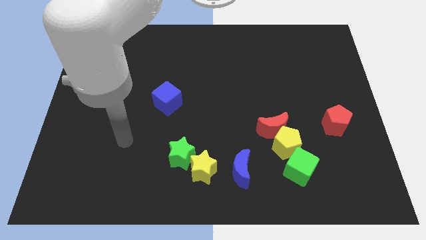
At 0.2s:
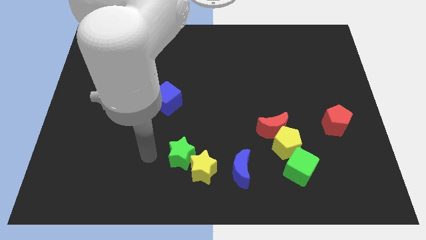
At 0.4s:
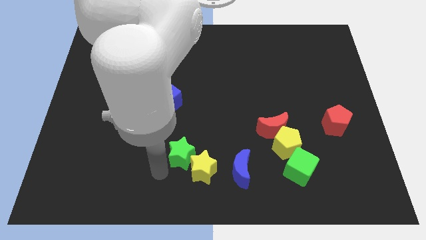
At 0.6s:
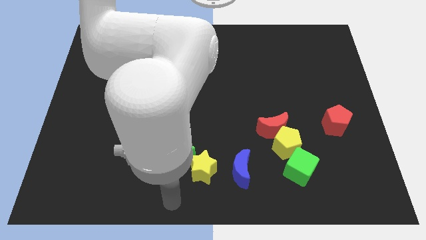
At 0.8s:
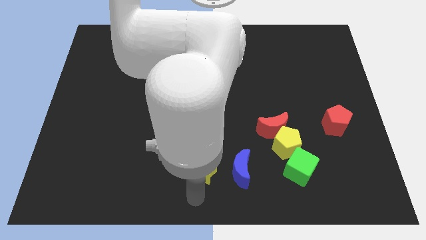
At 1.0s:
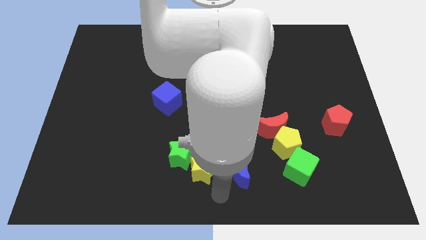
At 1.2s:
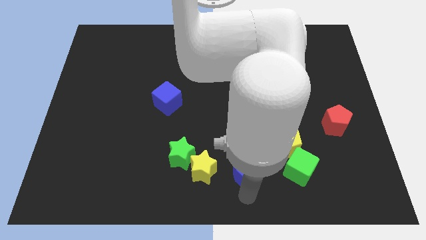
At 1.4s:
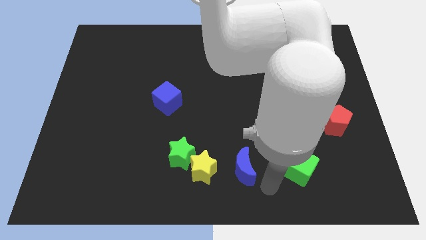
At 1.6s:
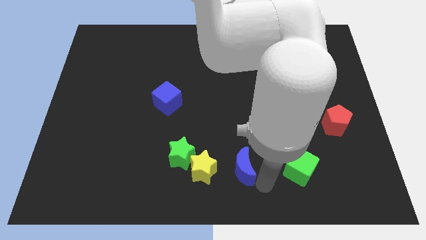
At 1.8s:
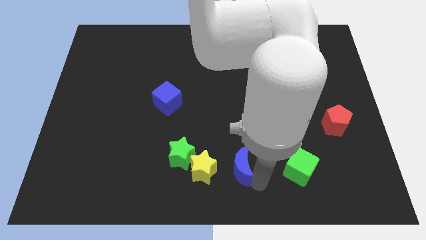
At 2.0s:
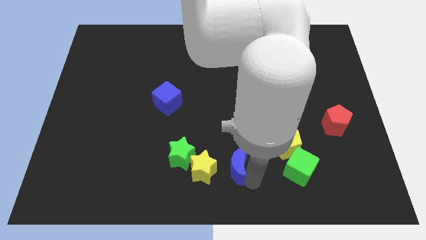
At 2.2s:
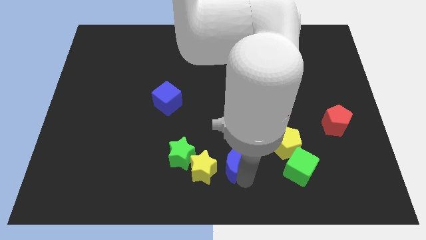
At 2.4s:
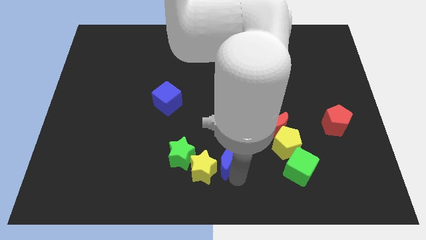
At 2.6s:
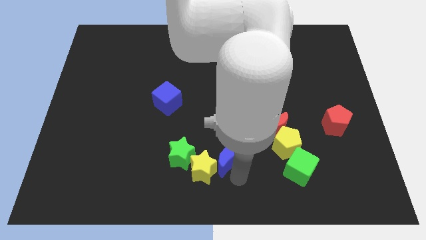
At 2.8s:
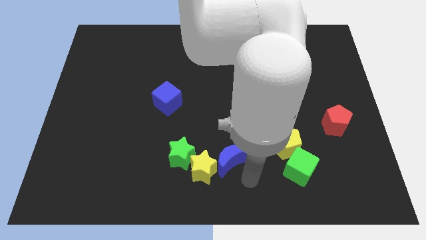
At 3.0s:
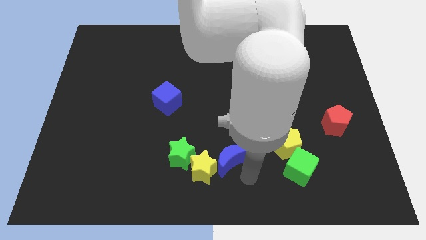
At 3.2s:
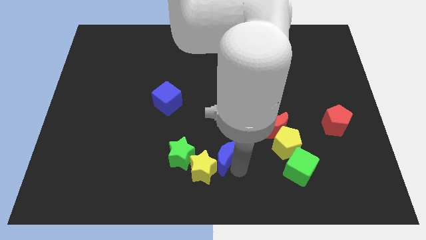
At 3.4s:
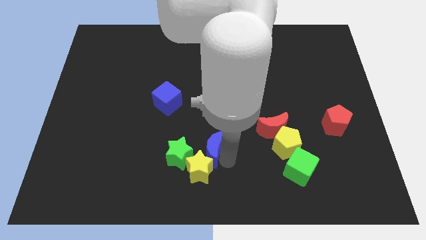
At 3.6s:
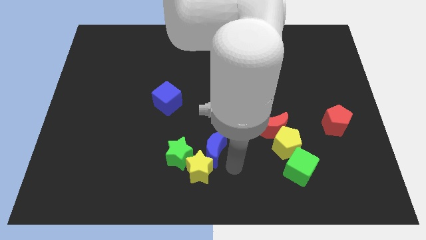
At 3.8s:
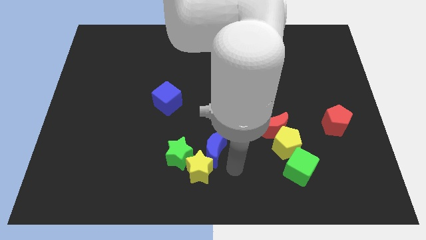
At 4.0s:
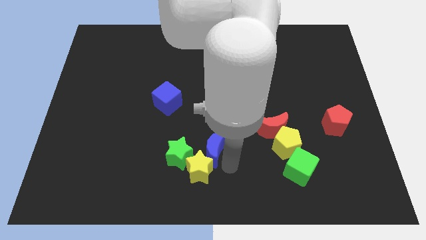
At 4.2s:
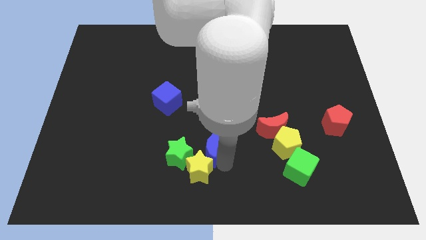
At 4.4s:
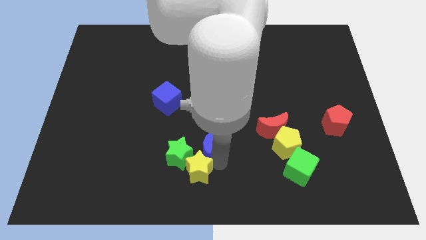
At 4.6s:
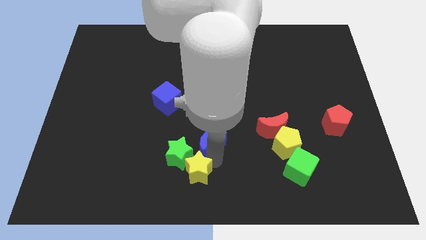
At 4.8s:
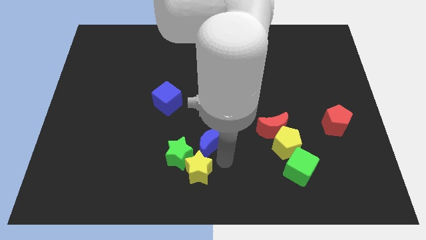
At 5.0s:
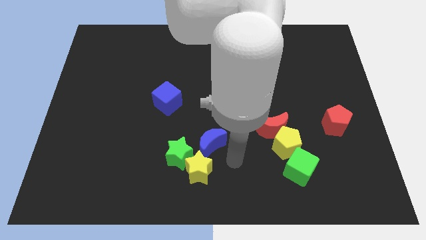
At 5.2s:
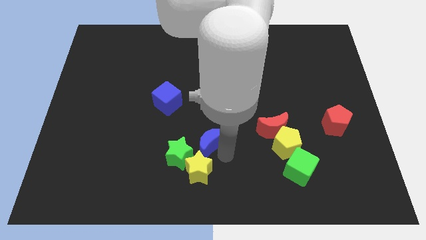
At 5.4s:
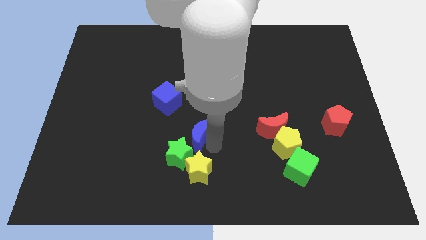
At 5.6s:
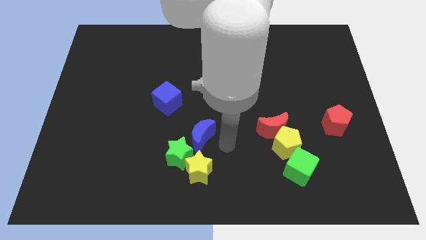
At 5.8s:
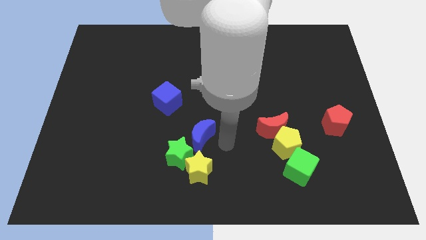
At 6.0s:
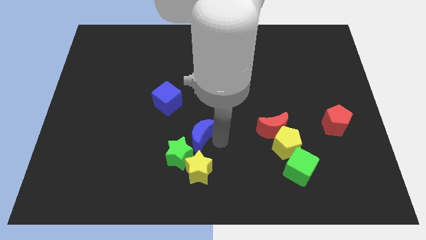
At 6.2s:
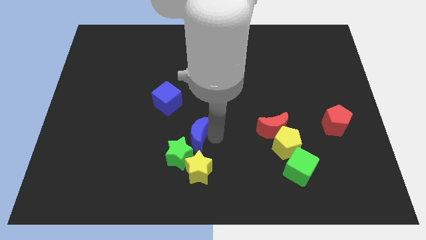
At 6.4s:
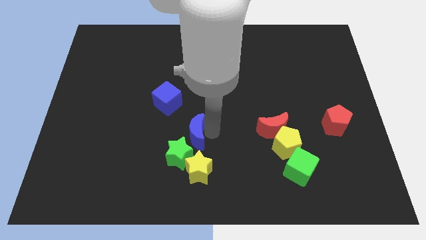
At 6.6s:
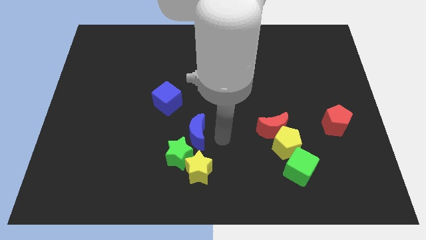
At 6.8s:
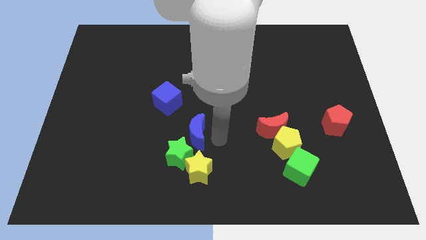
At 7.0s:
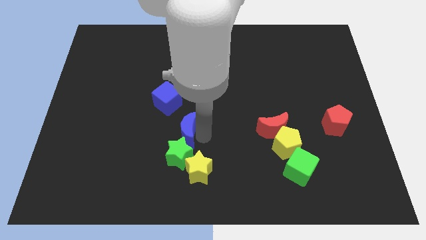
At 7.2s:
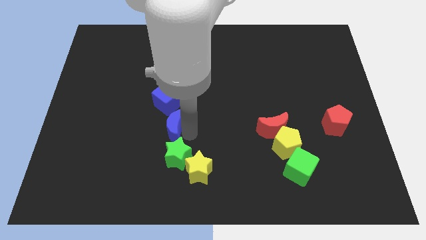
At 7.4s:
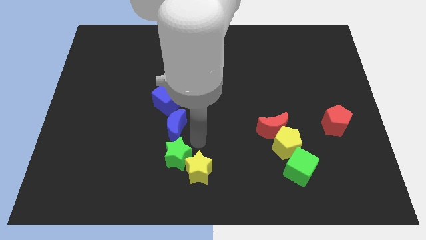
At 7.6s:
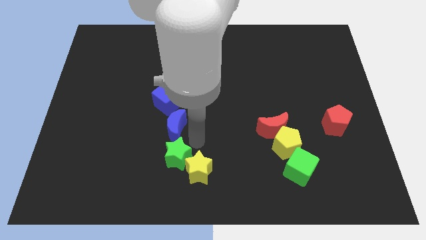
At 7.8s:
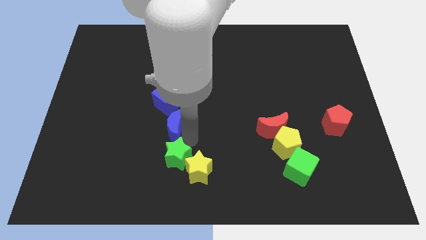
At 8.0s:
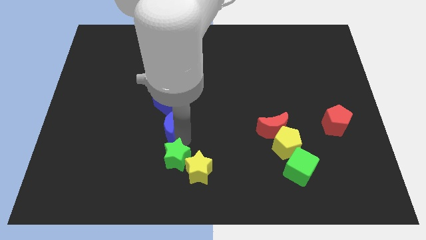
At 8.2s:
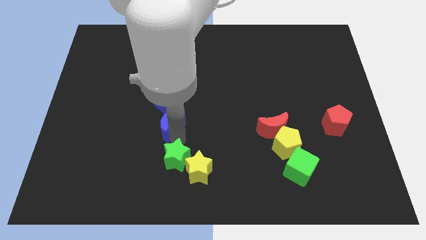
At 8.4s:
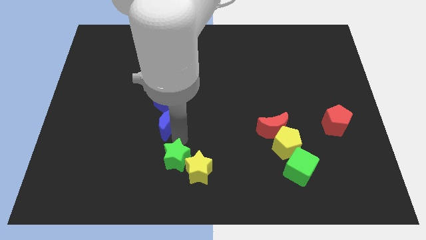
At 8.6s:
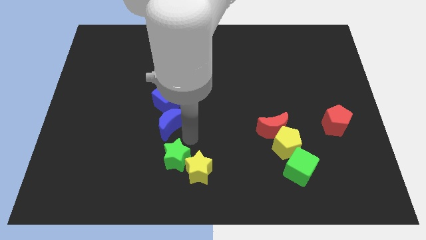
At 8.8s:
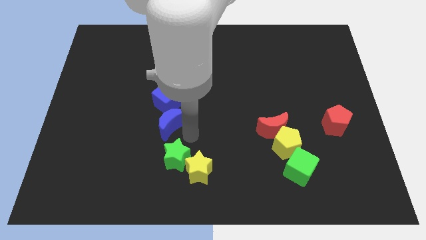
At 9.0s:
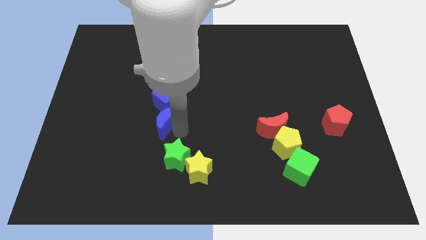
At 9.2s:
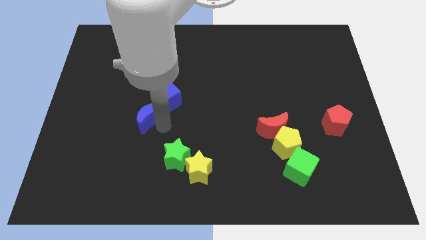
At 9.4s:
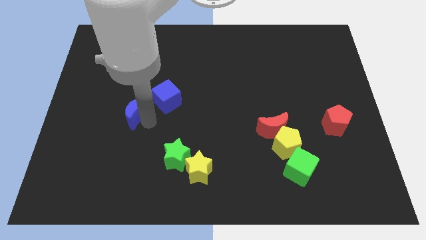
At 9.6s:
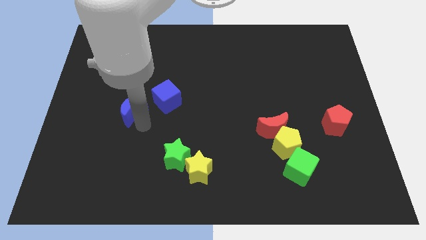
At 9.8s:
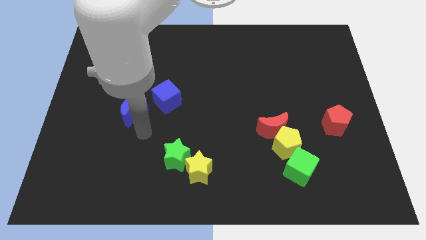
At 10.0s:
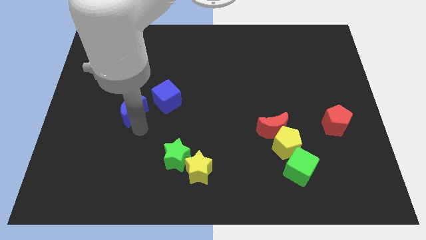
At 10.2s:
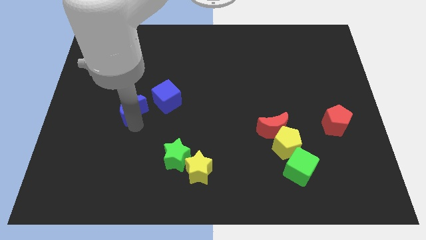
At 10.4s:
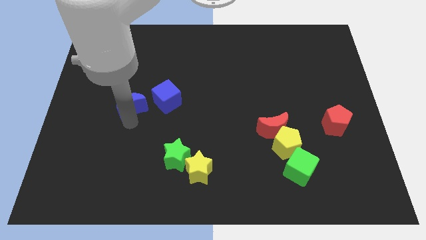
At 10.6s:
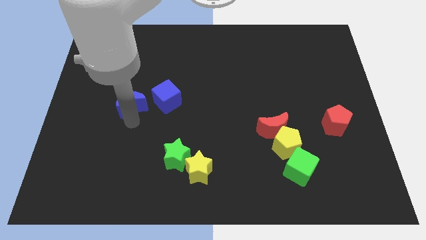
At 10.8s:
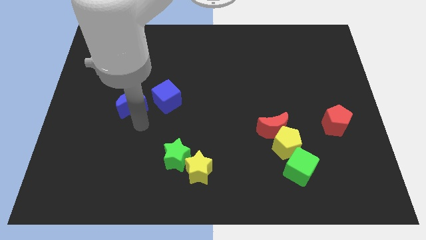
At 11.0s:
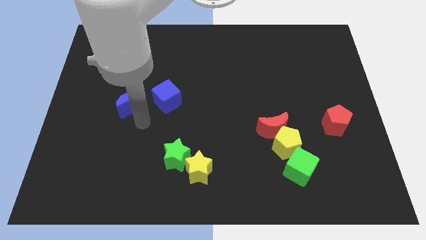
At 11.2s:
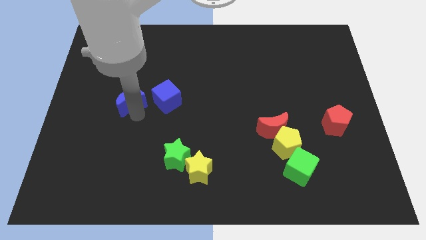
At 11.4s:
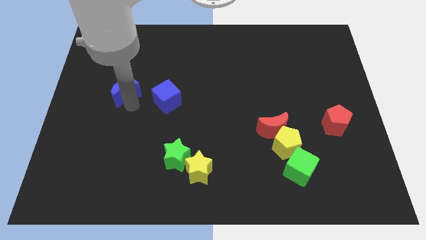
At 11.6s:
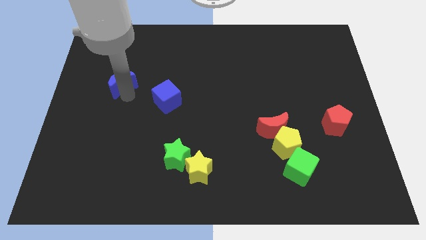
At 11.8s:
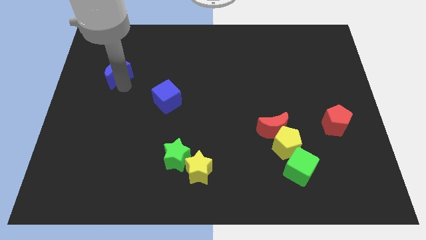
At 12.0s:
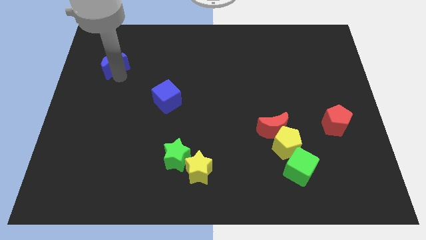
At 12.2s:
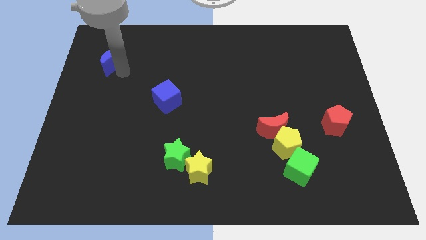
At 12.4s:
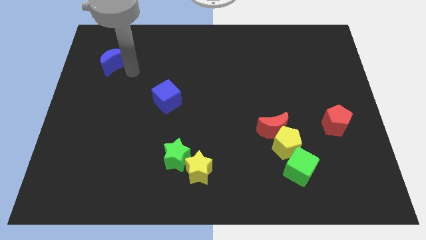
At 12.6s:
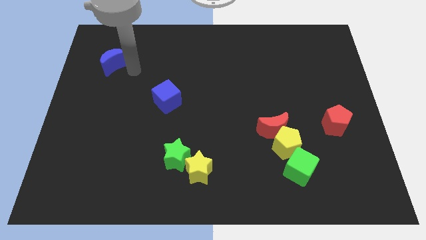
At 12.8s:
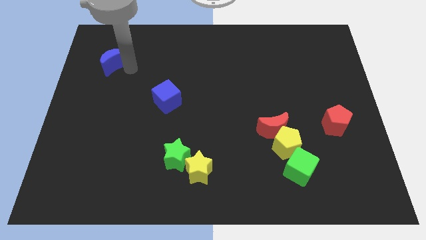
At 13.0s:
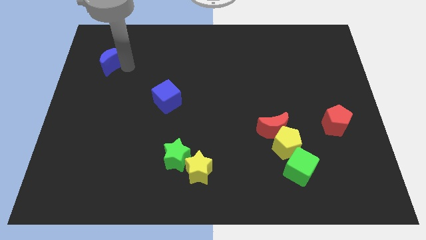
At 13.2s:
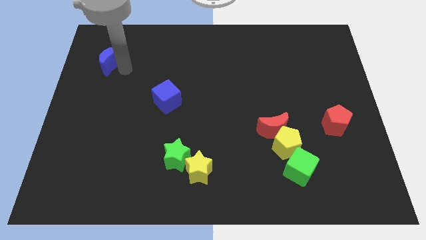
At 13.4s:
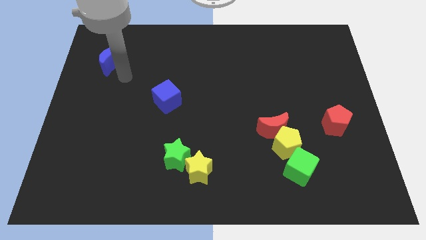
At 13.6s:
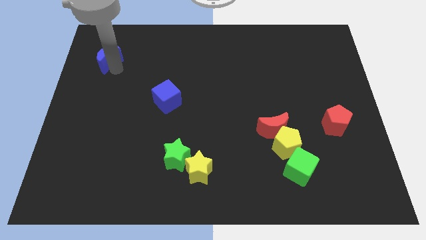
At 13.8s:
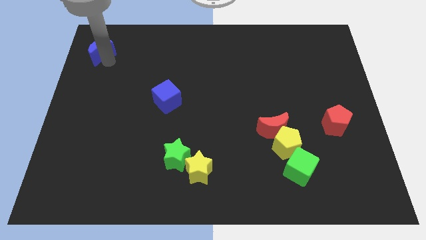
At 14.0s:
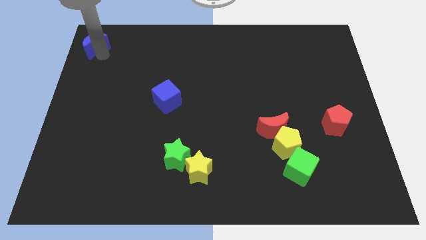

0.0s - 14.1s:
slide the blue moon to the top left
